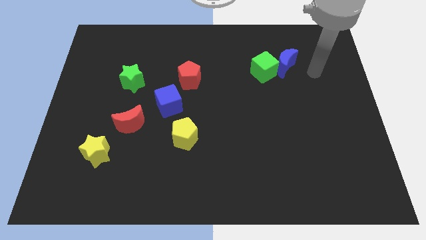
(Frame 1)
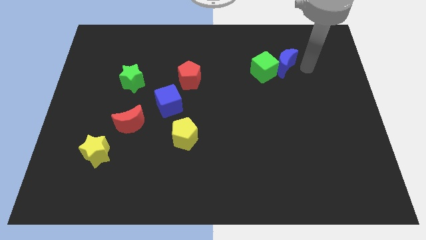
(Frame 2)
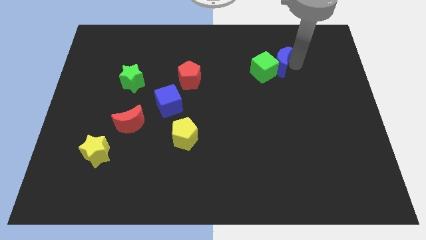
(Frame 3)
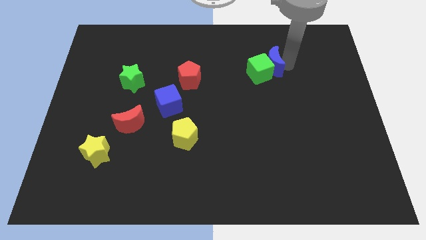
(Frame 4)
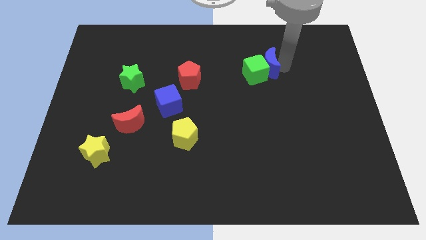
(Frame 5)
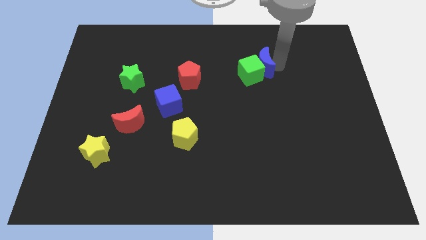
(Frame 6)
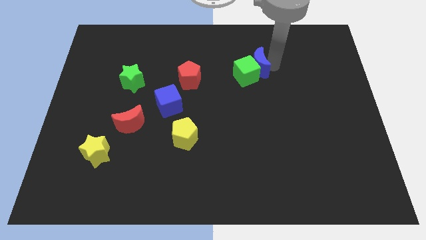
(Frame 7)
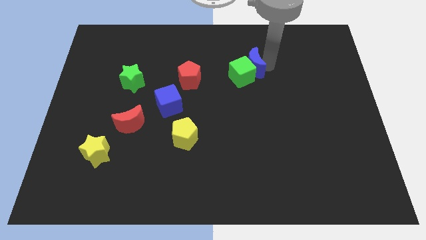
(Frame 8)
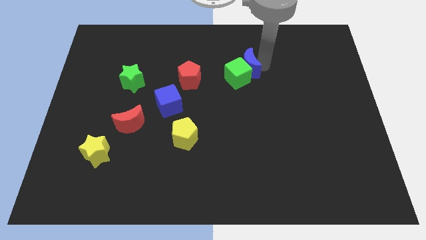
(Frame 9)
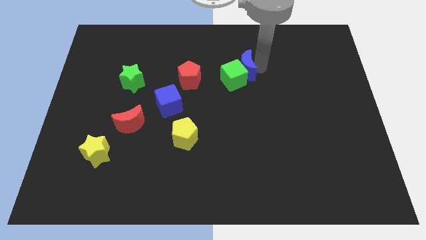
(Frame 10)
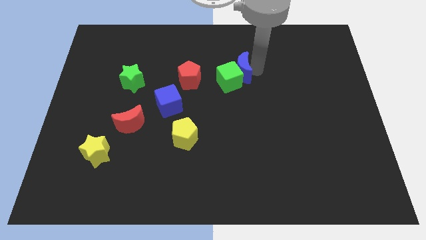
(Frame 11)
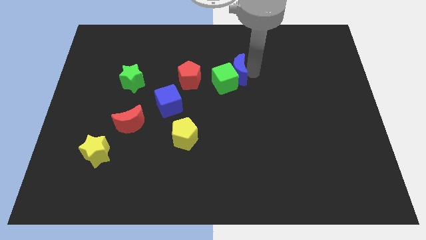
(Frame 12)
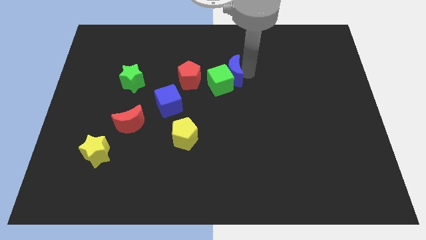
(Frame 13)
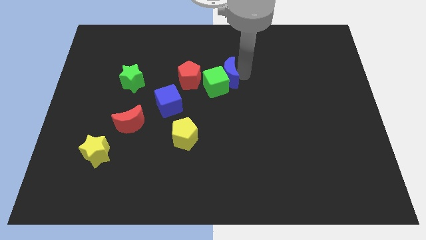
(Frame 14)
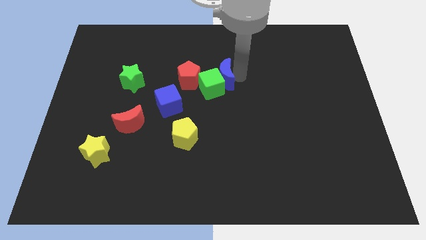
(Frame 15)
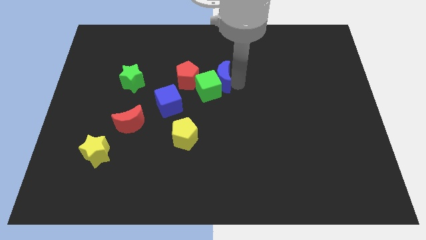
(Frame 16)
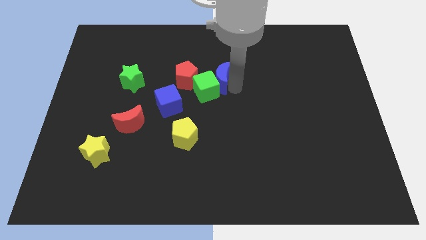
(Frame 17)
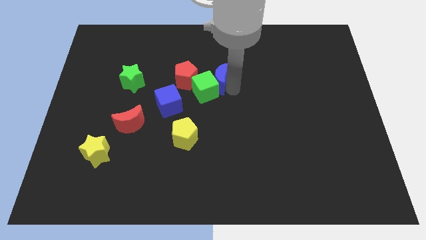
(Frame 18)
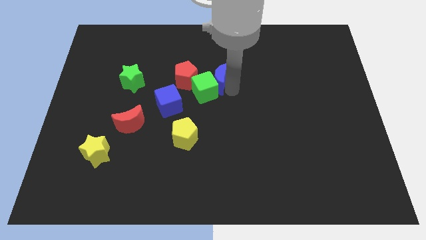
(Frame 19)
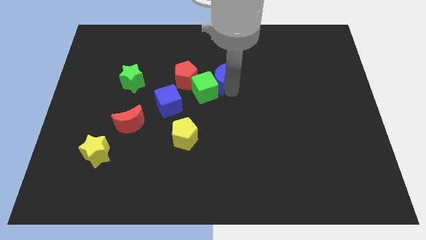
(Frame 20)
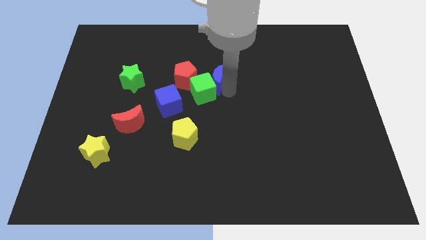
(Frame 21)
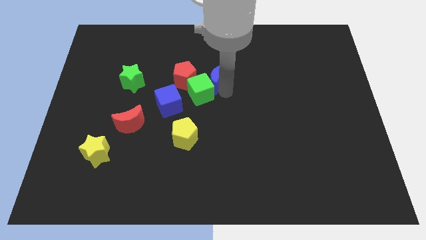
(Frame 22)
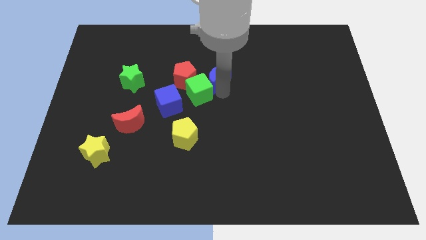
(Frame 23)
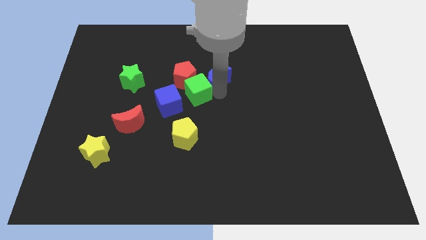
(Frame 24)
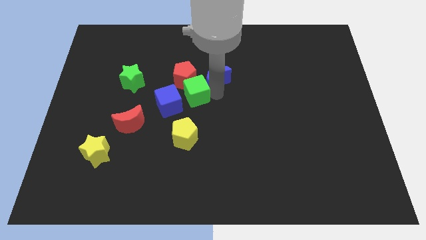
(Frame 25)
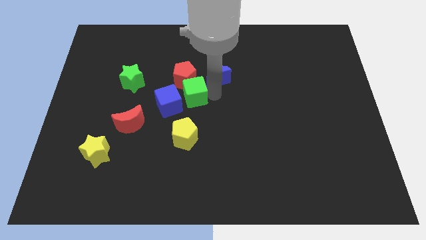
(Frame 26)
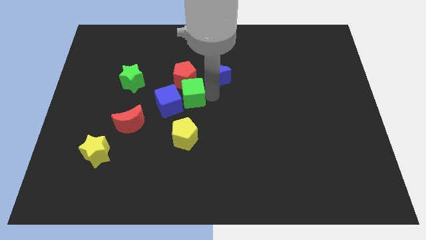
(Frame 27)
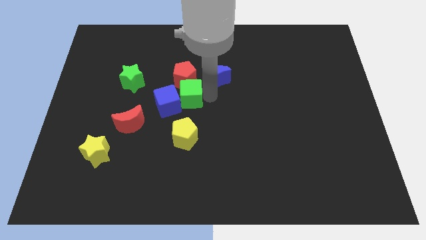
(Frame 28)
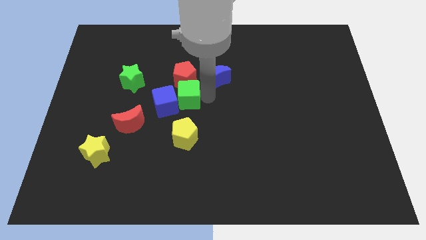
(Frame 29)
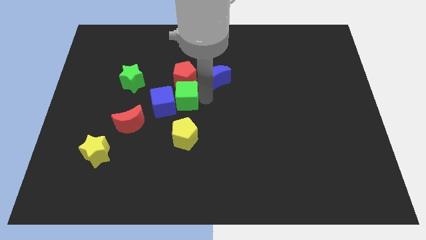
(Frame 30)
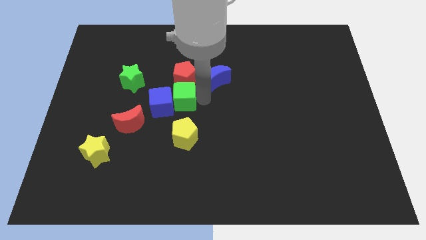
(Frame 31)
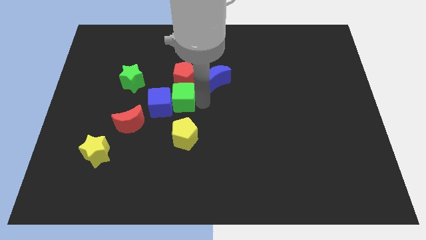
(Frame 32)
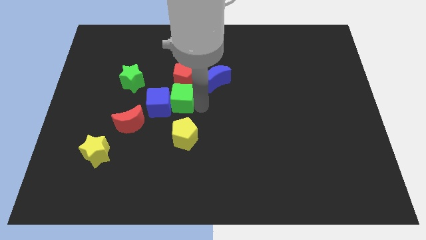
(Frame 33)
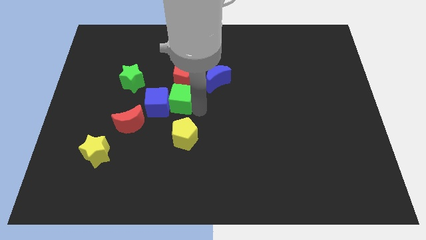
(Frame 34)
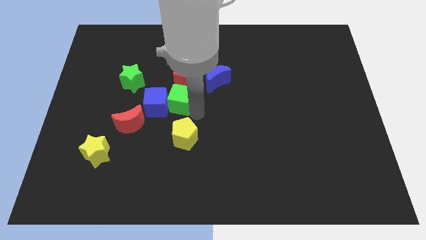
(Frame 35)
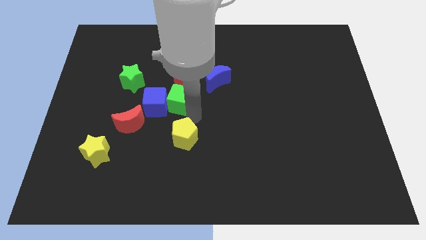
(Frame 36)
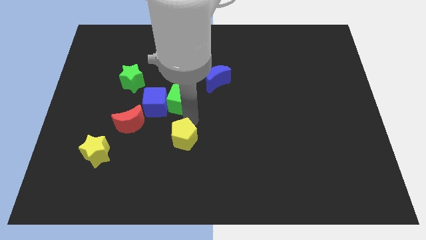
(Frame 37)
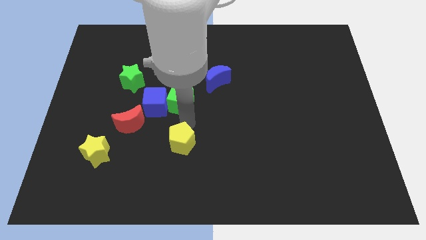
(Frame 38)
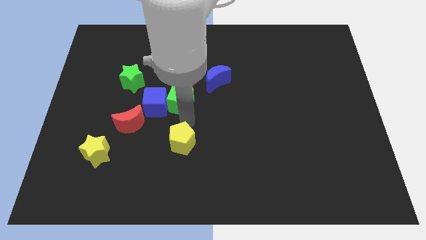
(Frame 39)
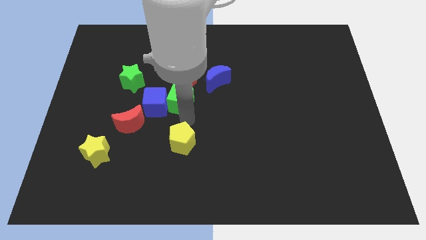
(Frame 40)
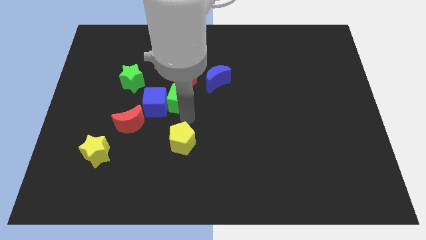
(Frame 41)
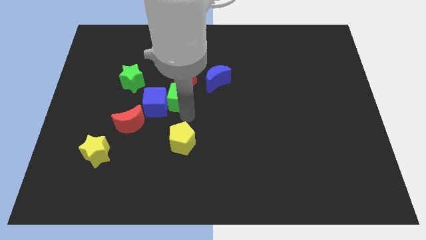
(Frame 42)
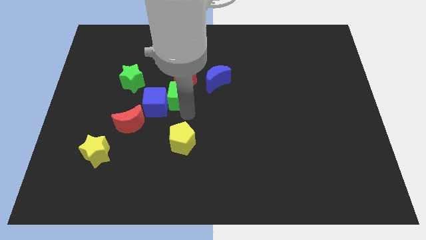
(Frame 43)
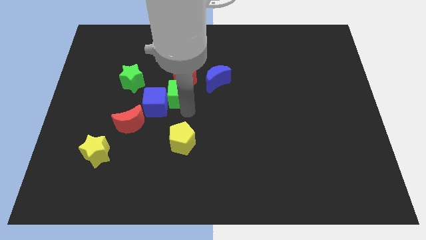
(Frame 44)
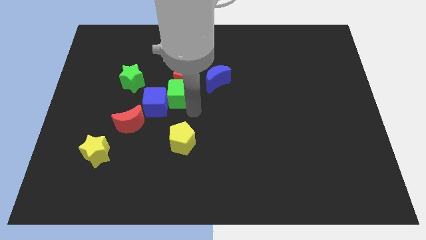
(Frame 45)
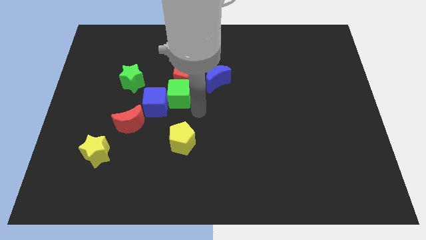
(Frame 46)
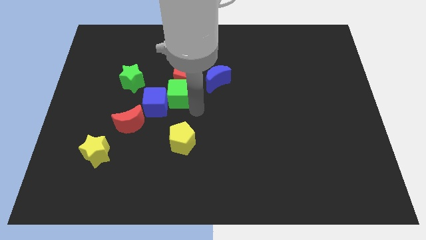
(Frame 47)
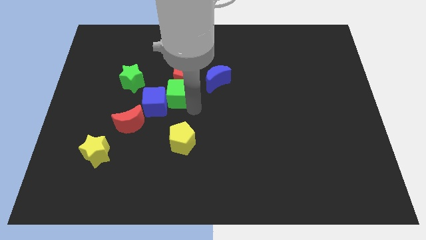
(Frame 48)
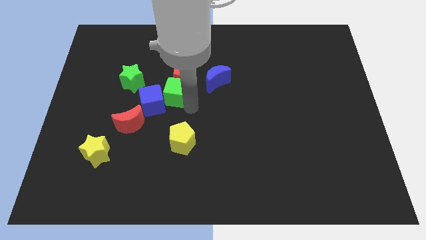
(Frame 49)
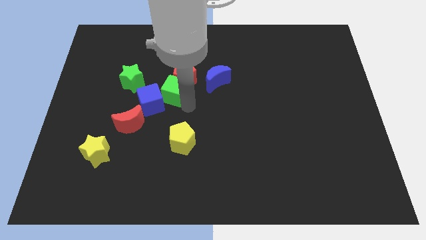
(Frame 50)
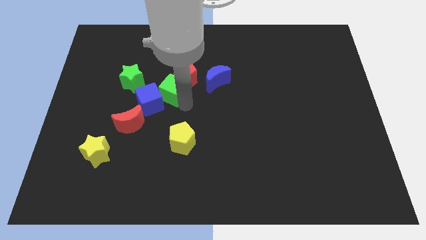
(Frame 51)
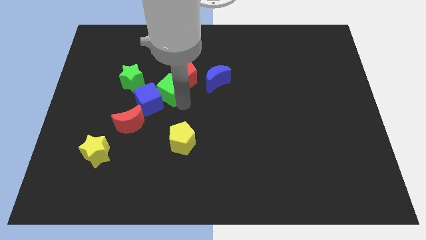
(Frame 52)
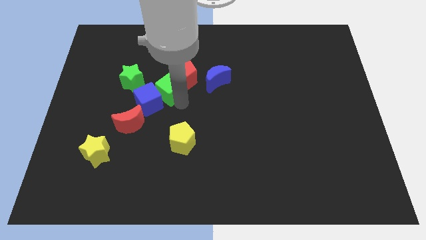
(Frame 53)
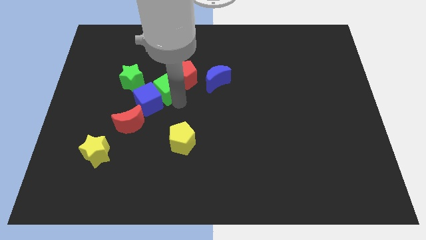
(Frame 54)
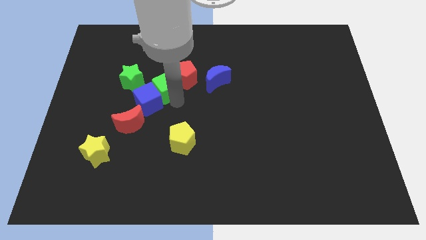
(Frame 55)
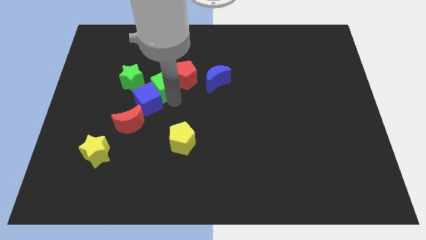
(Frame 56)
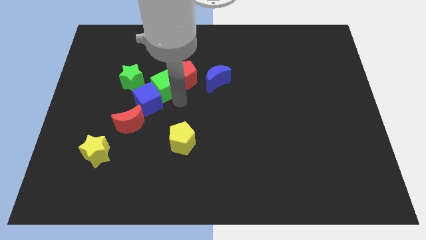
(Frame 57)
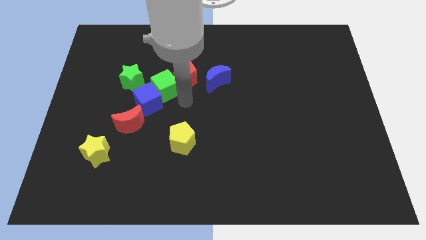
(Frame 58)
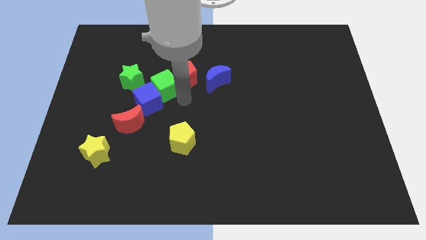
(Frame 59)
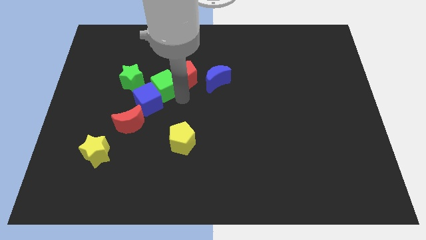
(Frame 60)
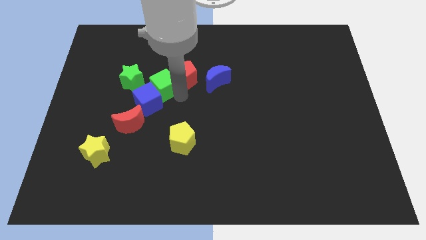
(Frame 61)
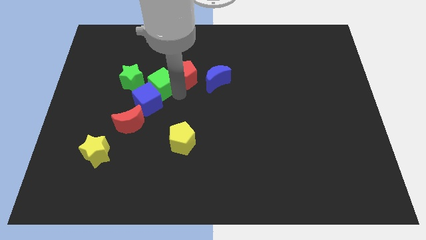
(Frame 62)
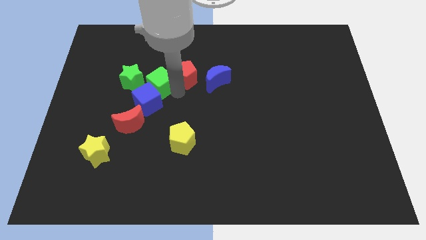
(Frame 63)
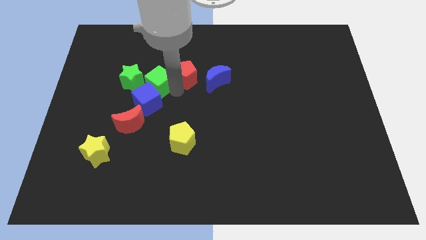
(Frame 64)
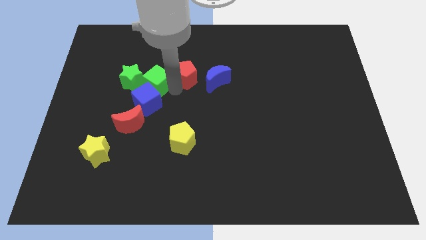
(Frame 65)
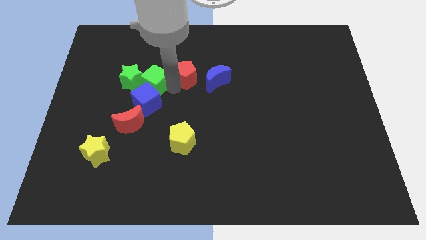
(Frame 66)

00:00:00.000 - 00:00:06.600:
put the green cube close to the green star

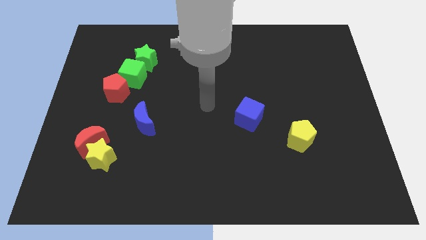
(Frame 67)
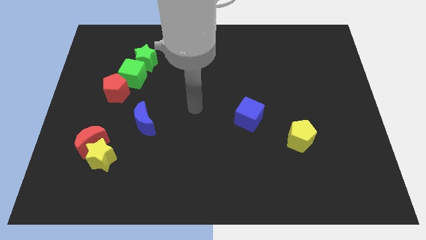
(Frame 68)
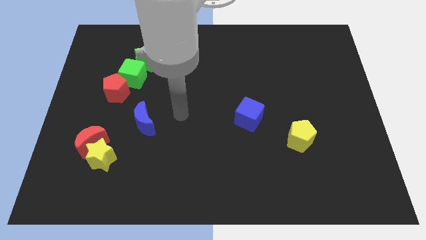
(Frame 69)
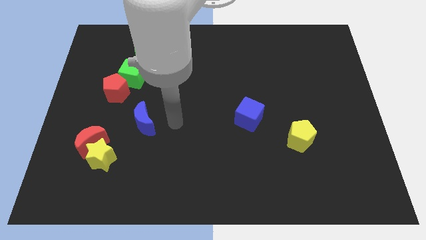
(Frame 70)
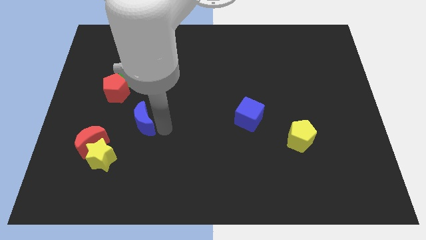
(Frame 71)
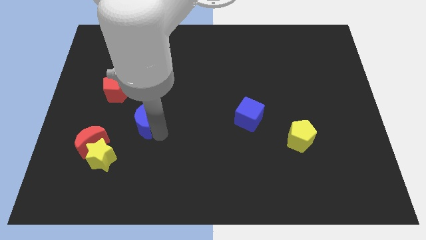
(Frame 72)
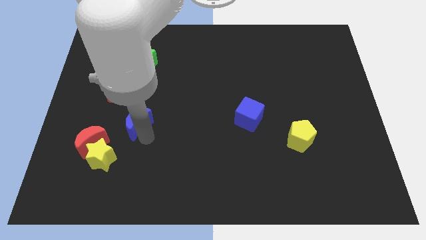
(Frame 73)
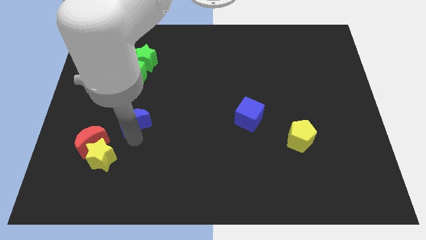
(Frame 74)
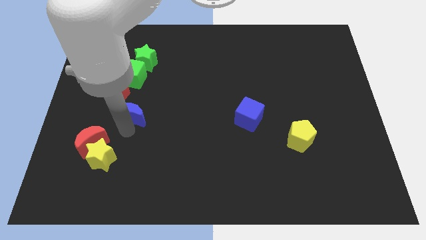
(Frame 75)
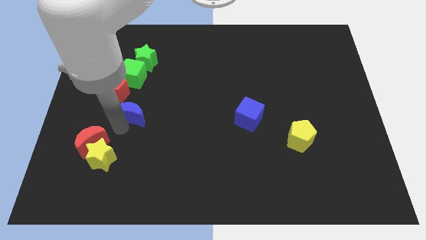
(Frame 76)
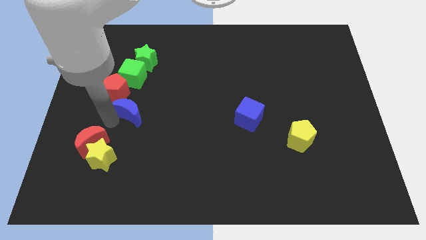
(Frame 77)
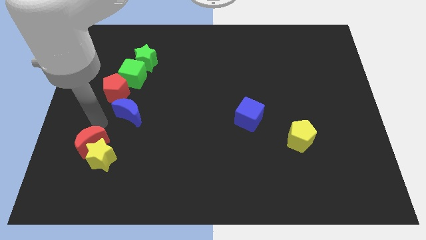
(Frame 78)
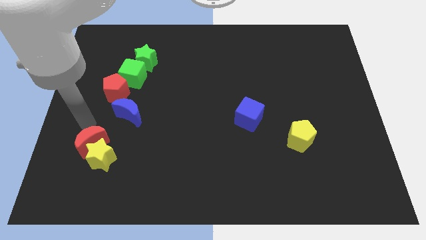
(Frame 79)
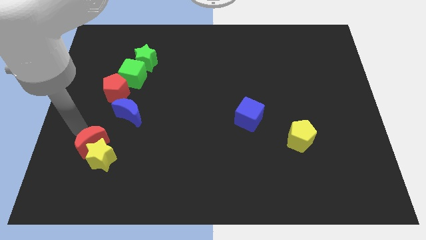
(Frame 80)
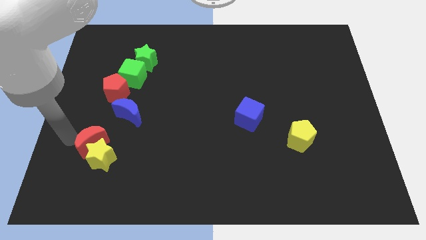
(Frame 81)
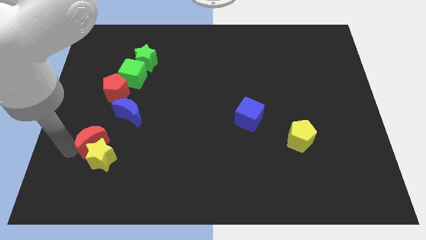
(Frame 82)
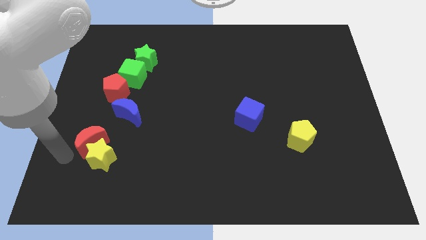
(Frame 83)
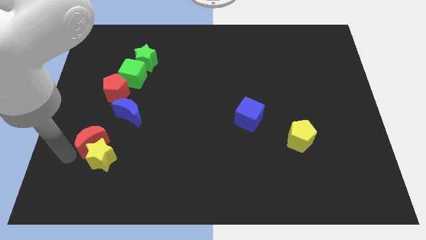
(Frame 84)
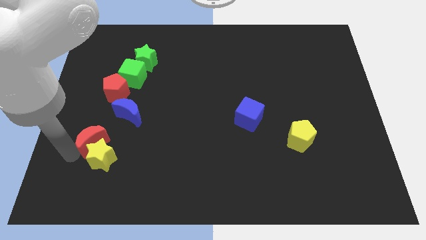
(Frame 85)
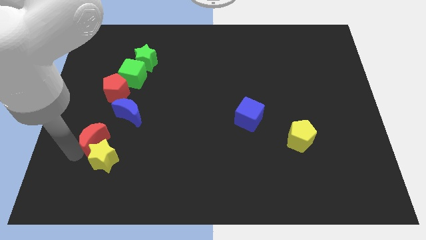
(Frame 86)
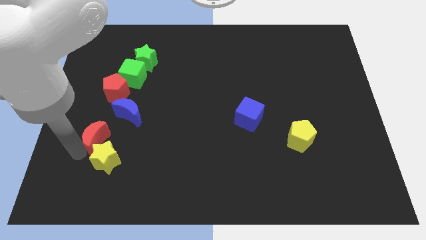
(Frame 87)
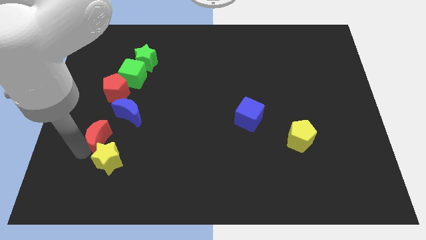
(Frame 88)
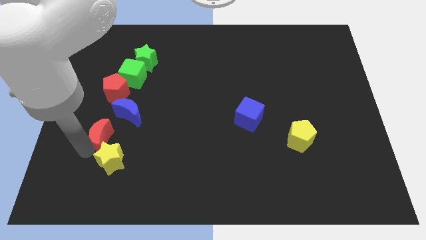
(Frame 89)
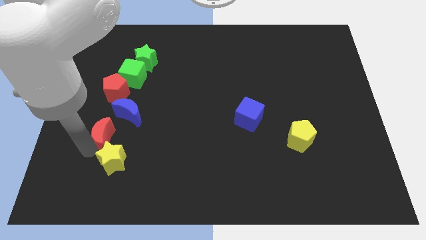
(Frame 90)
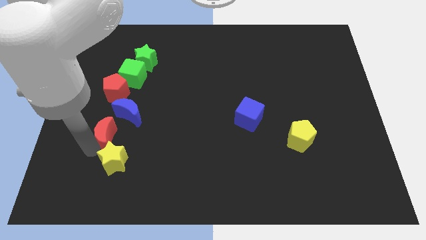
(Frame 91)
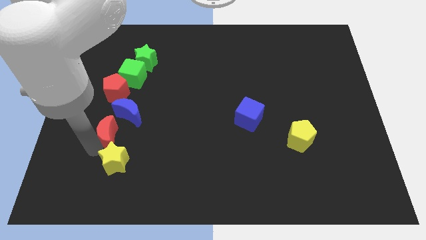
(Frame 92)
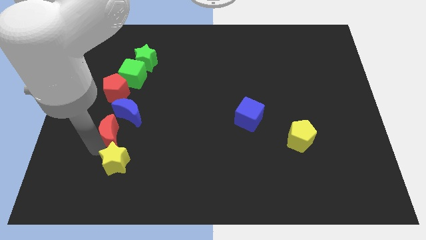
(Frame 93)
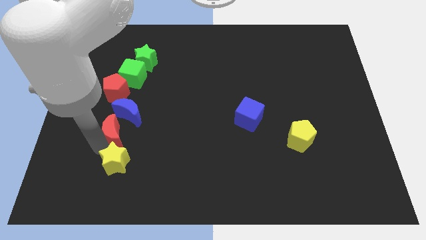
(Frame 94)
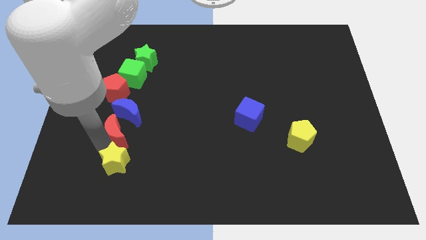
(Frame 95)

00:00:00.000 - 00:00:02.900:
slide the red moon towards the blue moon
